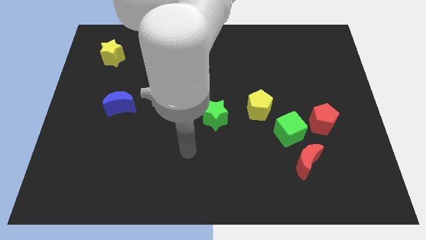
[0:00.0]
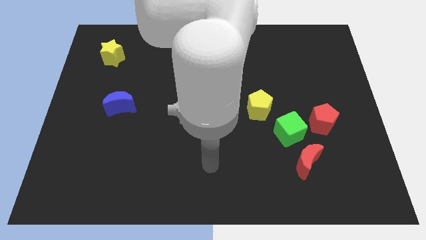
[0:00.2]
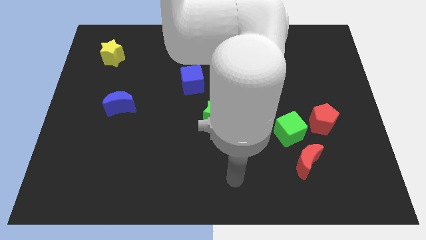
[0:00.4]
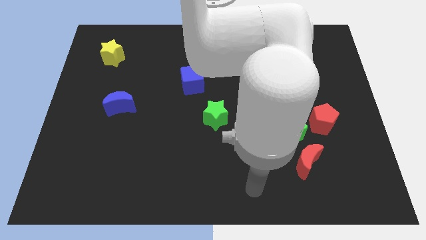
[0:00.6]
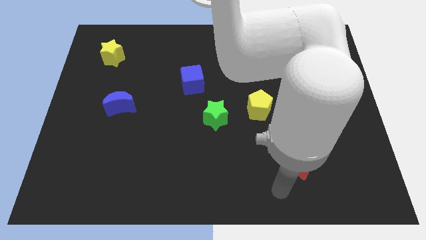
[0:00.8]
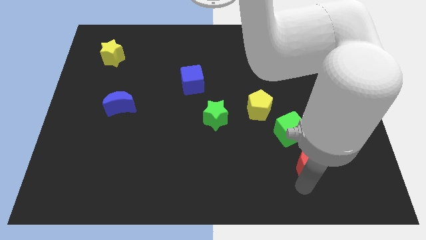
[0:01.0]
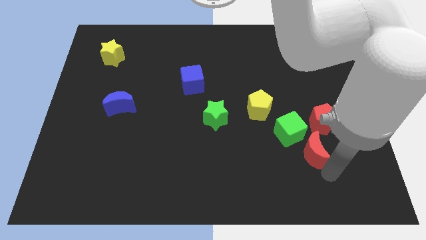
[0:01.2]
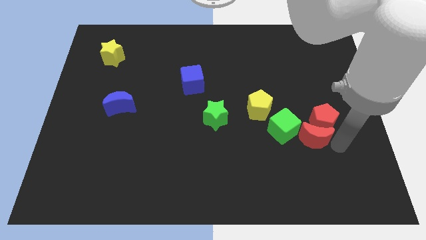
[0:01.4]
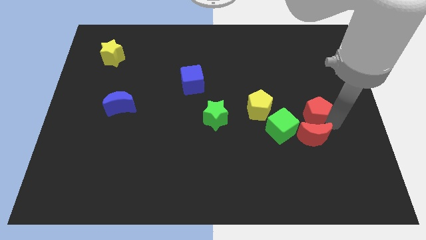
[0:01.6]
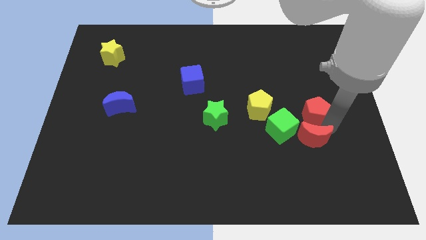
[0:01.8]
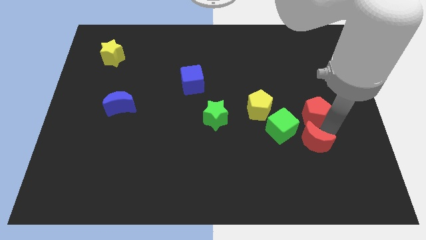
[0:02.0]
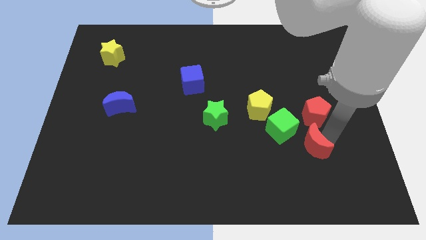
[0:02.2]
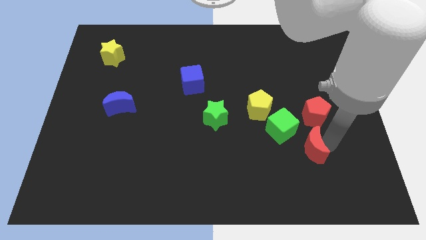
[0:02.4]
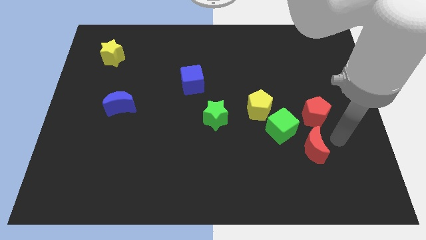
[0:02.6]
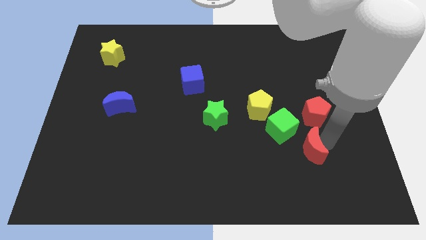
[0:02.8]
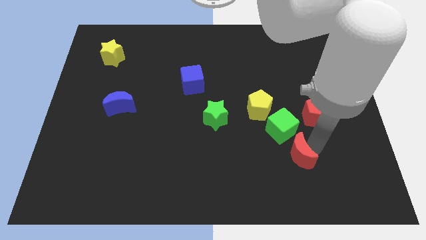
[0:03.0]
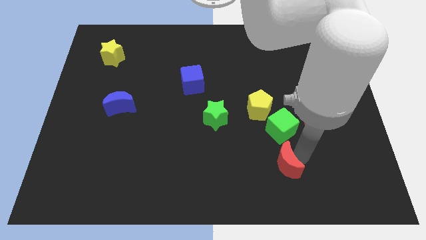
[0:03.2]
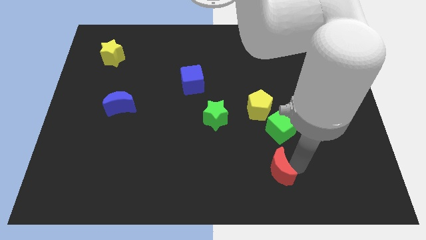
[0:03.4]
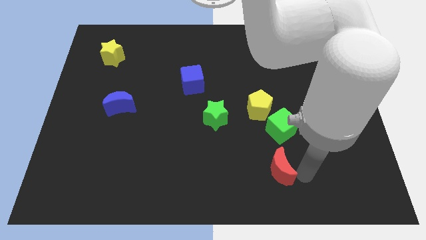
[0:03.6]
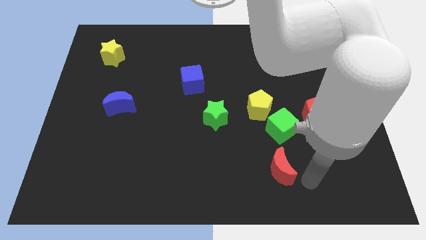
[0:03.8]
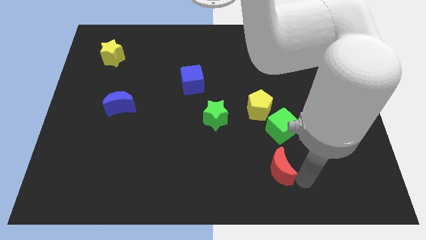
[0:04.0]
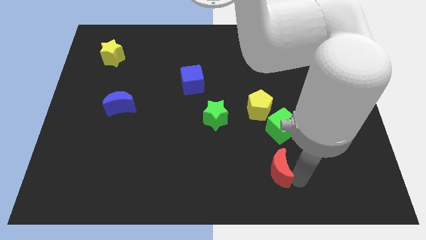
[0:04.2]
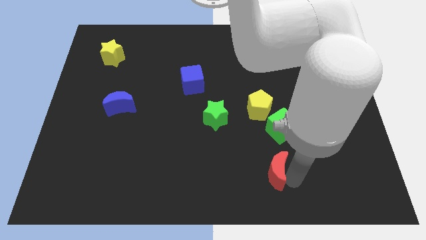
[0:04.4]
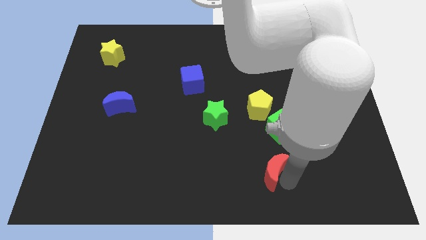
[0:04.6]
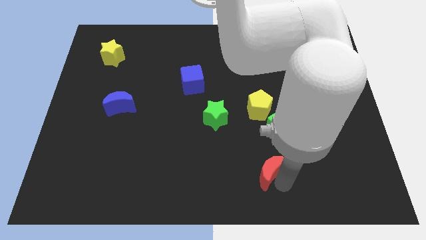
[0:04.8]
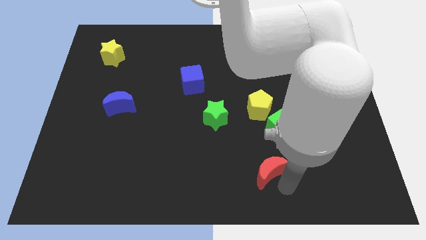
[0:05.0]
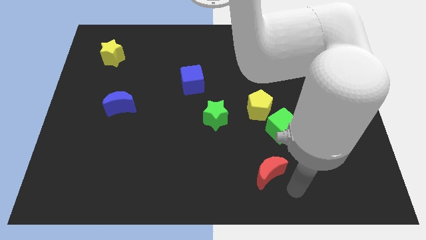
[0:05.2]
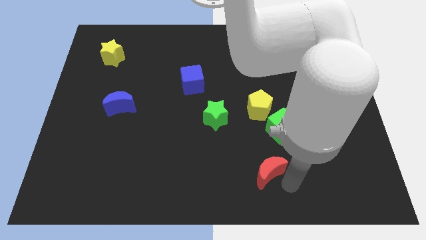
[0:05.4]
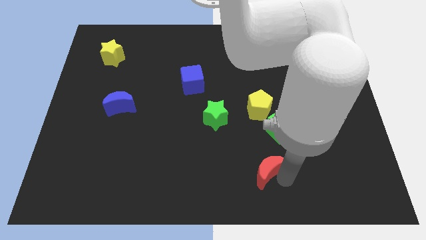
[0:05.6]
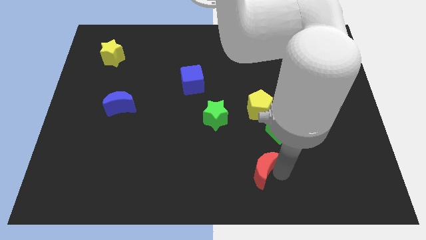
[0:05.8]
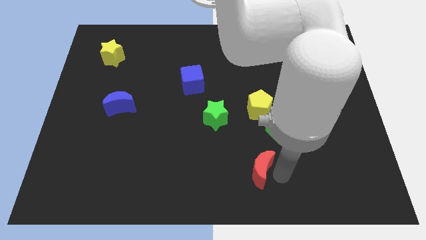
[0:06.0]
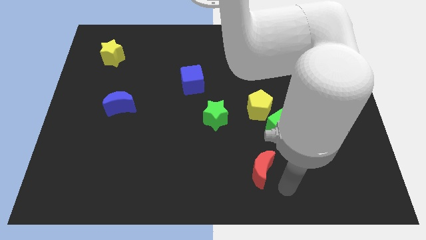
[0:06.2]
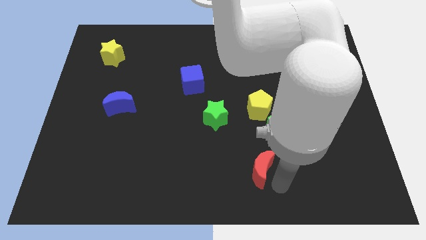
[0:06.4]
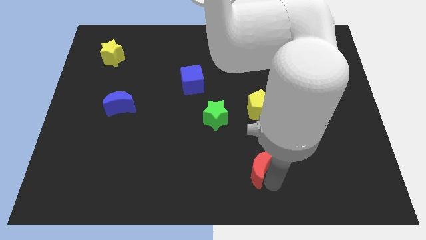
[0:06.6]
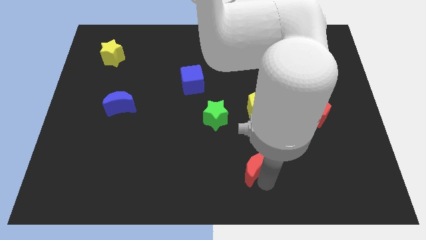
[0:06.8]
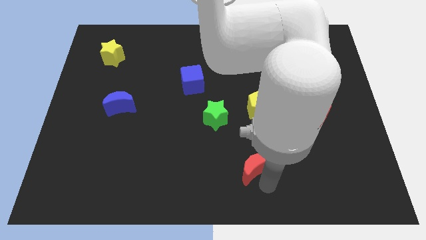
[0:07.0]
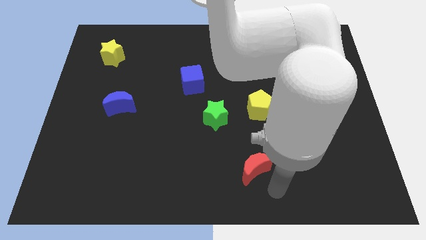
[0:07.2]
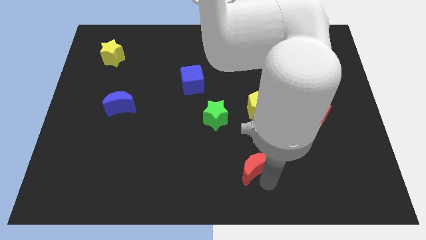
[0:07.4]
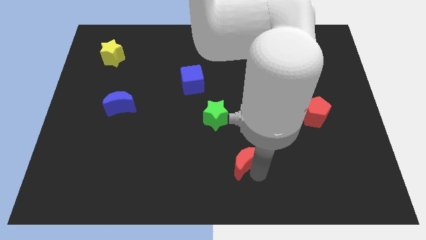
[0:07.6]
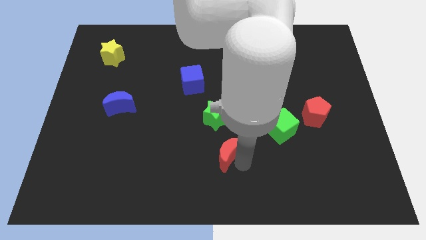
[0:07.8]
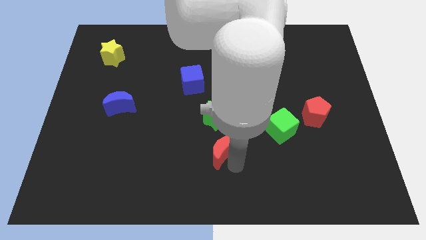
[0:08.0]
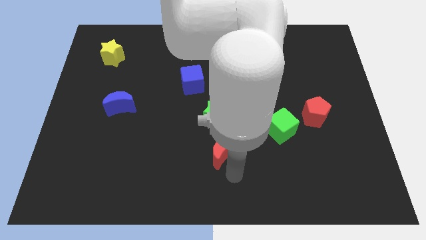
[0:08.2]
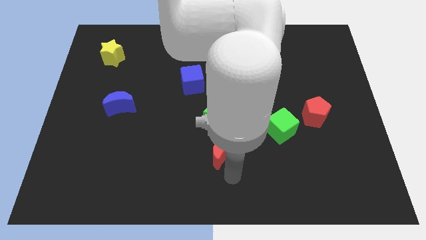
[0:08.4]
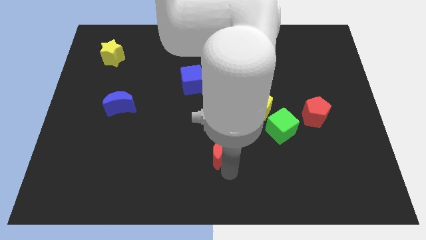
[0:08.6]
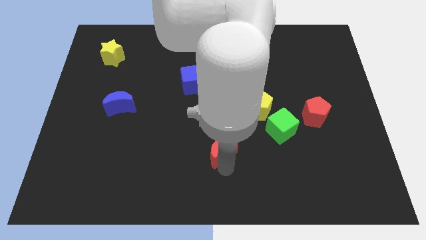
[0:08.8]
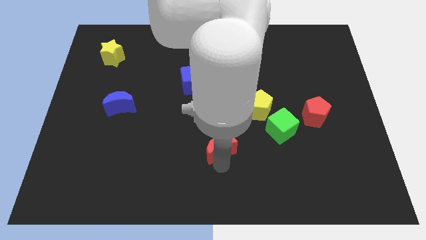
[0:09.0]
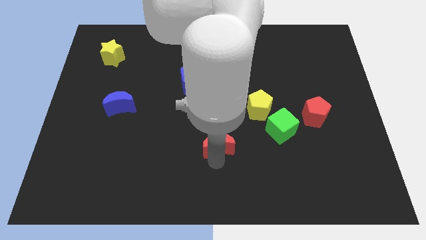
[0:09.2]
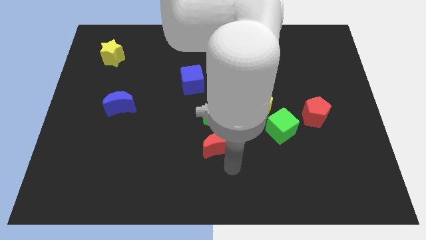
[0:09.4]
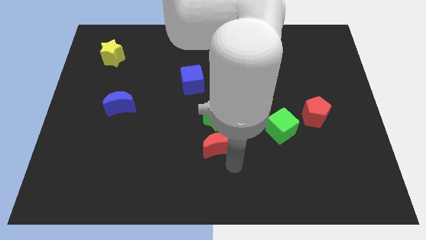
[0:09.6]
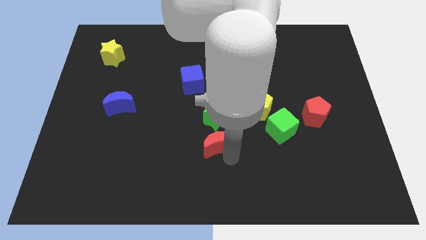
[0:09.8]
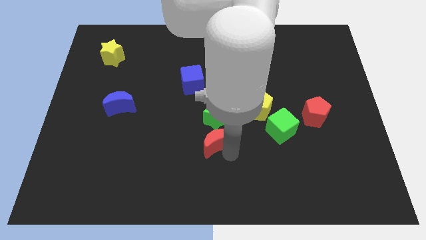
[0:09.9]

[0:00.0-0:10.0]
move the red moon to the center of the board

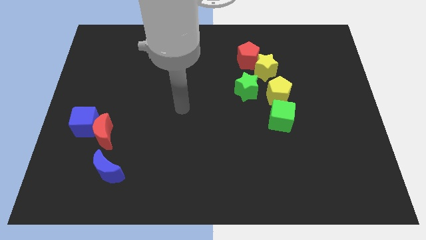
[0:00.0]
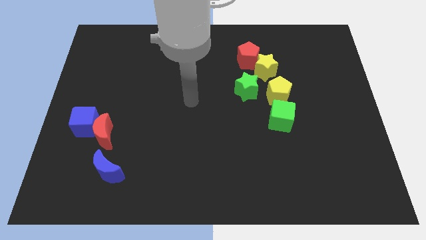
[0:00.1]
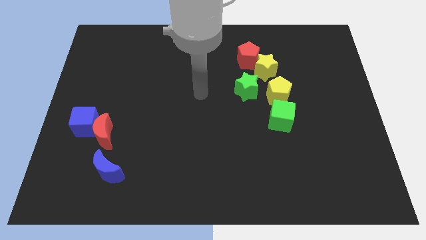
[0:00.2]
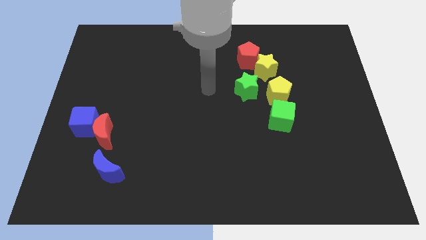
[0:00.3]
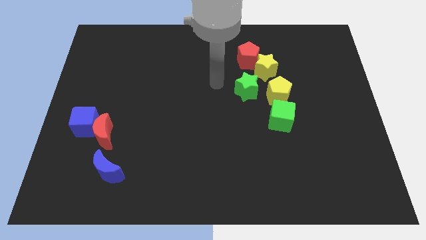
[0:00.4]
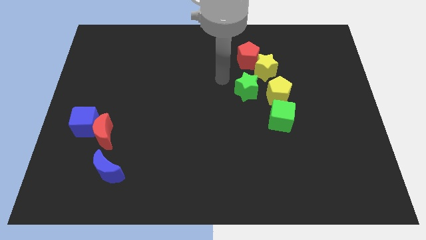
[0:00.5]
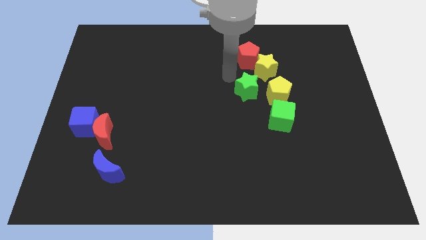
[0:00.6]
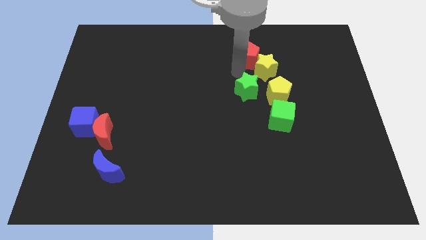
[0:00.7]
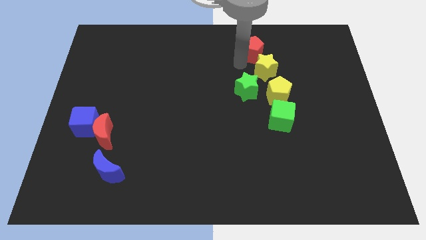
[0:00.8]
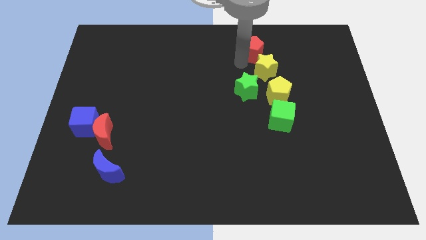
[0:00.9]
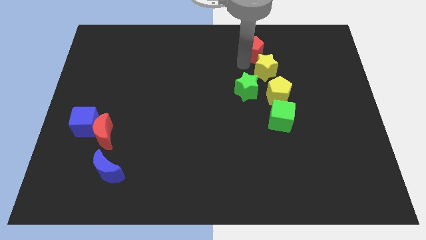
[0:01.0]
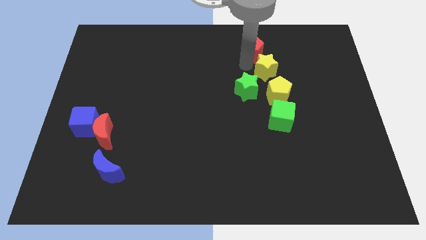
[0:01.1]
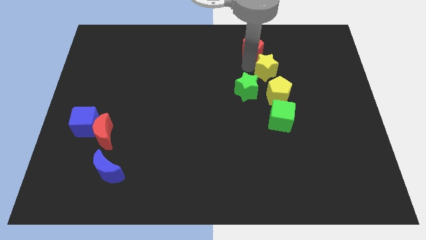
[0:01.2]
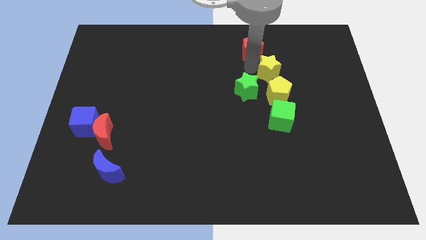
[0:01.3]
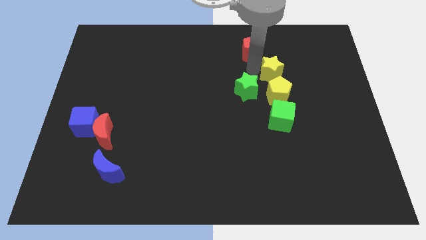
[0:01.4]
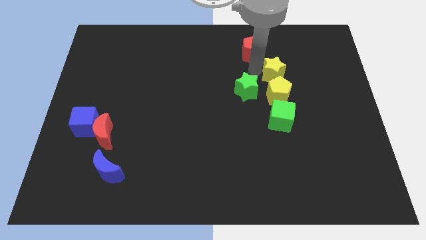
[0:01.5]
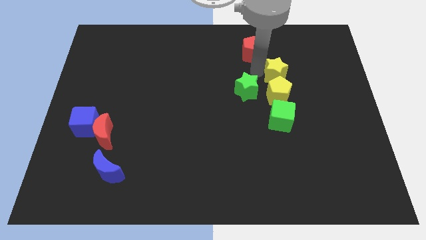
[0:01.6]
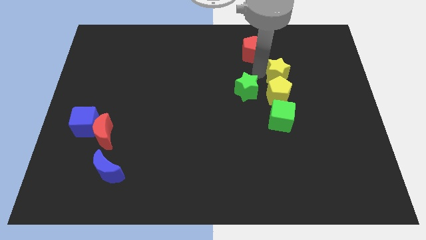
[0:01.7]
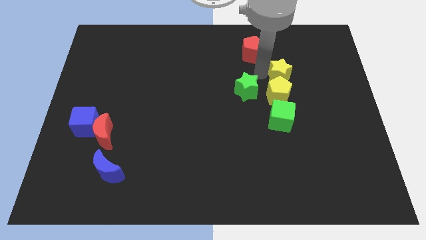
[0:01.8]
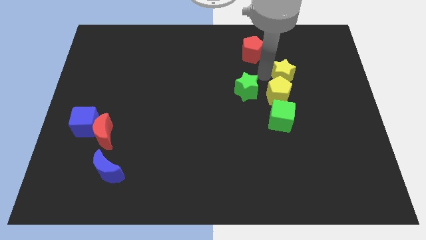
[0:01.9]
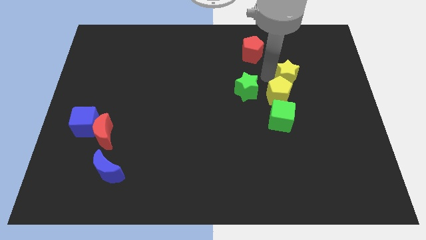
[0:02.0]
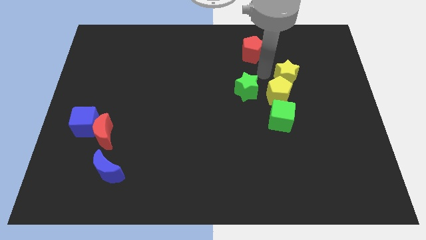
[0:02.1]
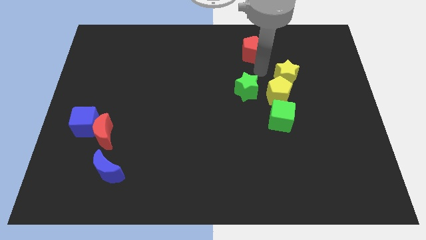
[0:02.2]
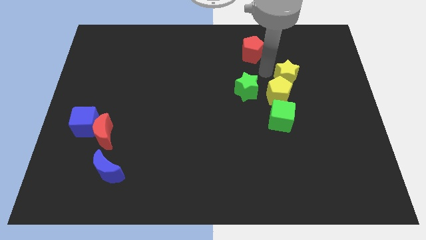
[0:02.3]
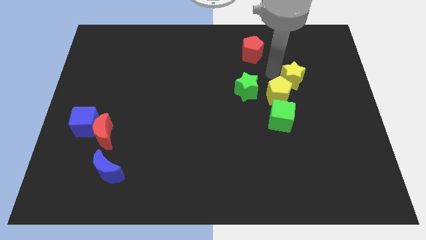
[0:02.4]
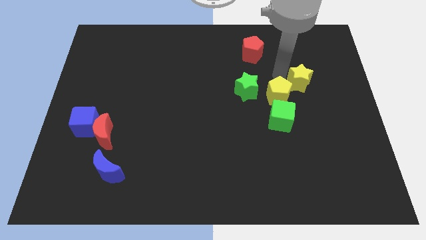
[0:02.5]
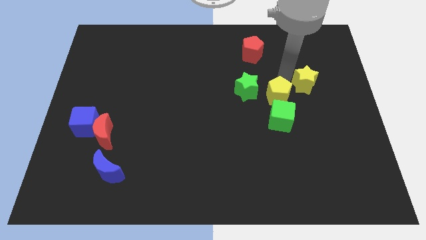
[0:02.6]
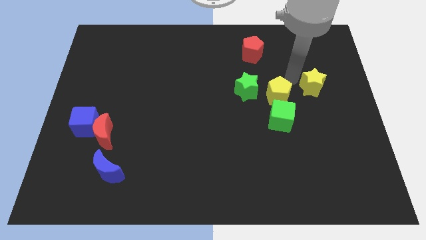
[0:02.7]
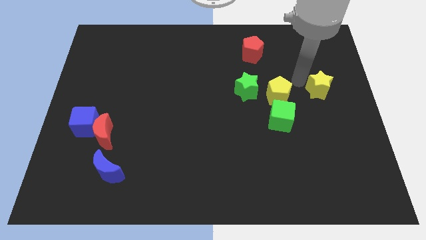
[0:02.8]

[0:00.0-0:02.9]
push the yellow star to the right side
